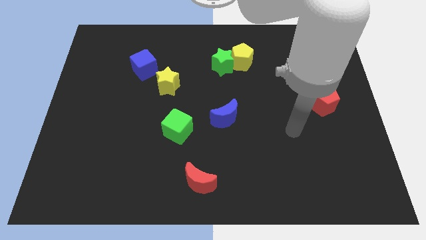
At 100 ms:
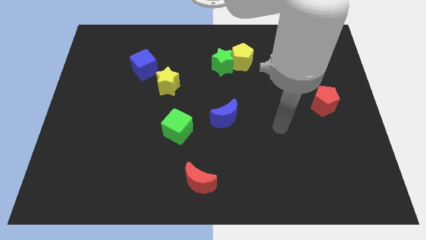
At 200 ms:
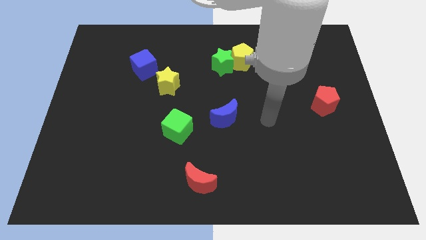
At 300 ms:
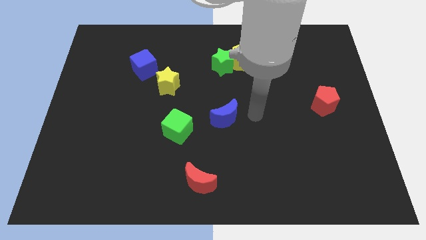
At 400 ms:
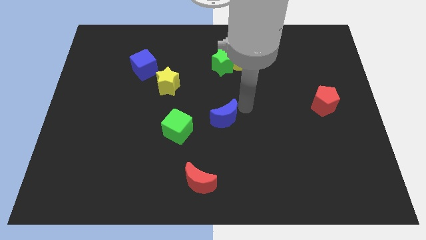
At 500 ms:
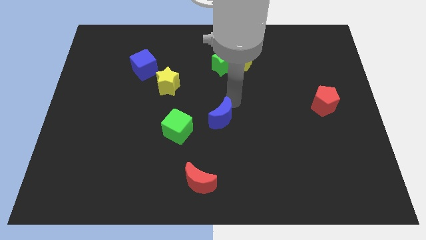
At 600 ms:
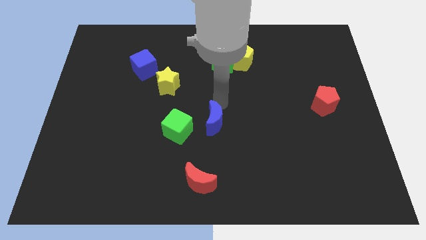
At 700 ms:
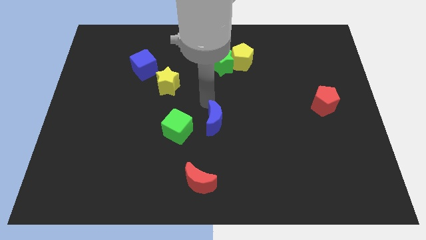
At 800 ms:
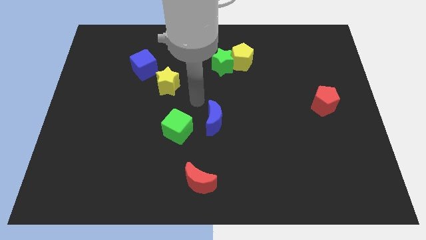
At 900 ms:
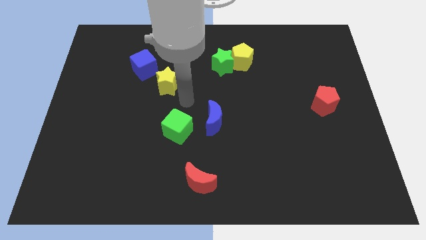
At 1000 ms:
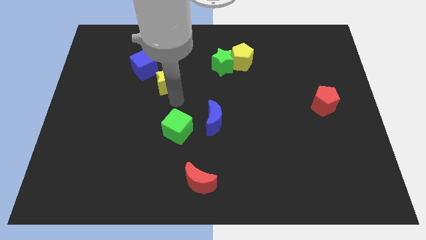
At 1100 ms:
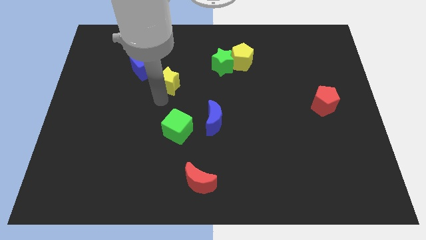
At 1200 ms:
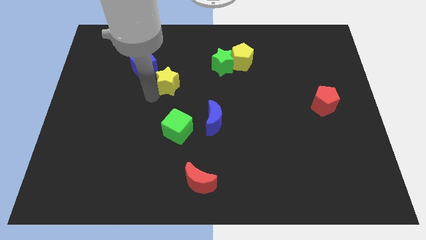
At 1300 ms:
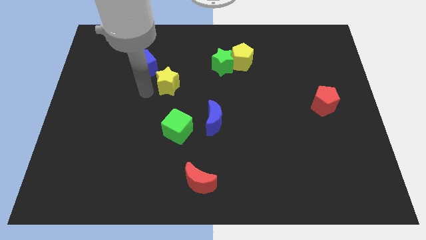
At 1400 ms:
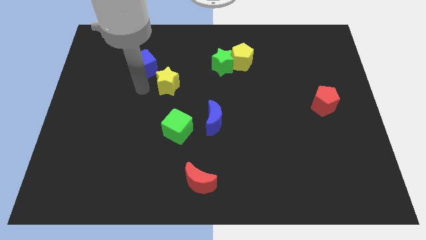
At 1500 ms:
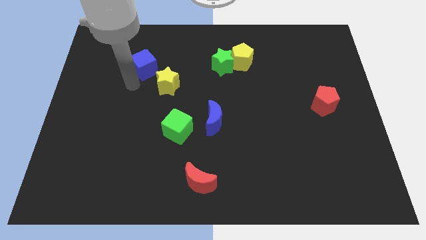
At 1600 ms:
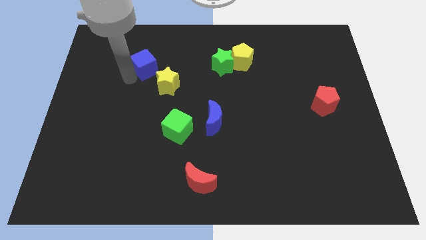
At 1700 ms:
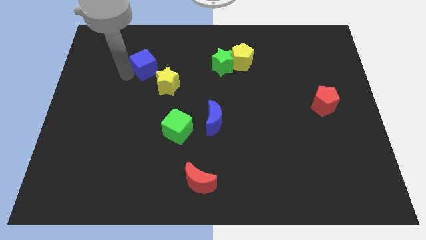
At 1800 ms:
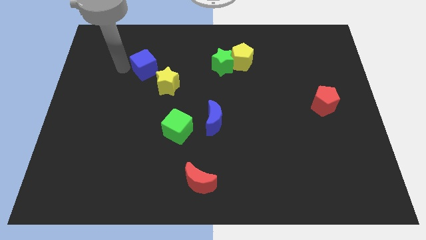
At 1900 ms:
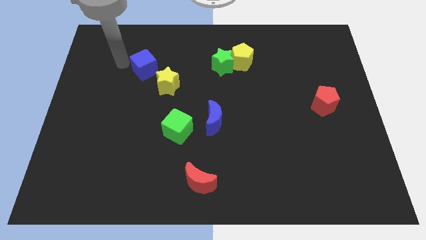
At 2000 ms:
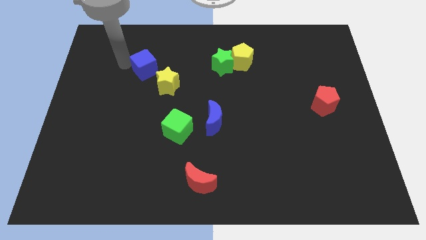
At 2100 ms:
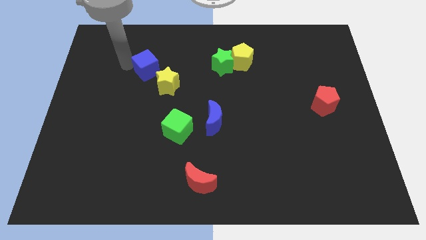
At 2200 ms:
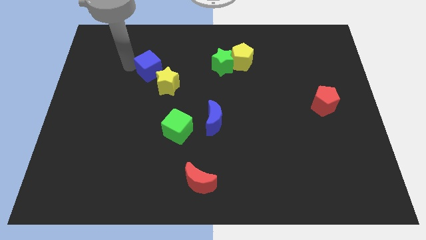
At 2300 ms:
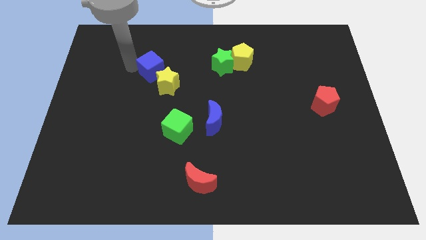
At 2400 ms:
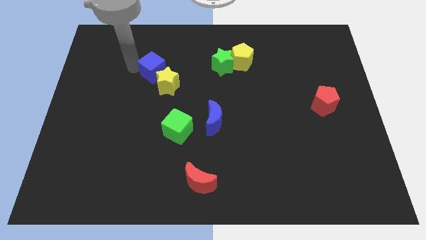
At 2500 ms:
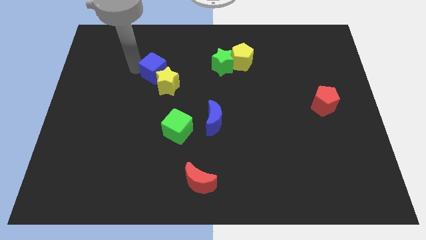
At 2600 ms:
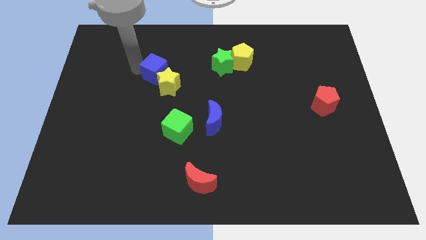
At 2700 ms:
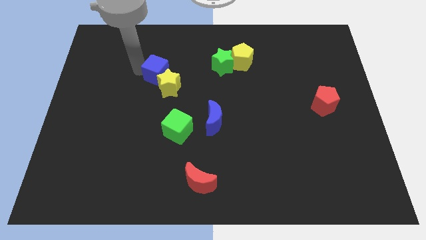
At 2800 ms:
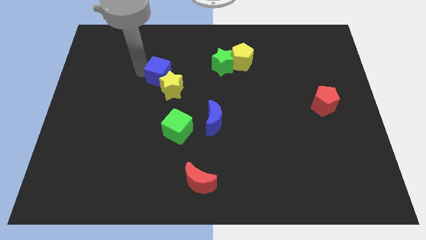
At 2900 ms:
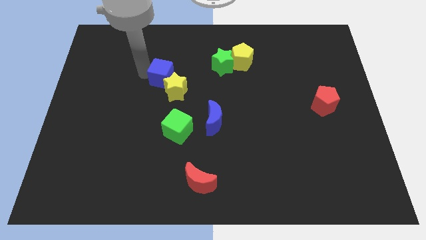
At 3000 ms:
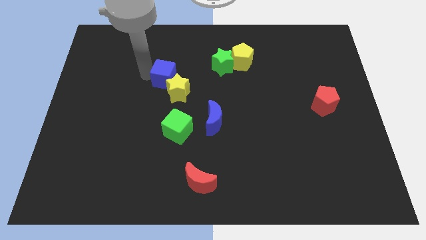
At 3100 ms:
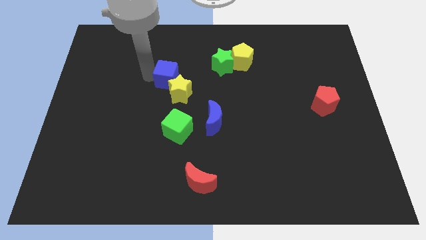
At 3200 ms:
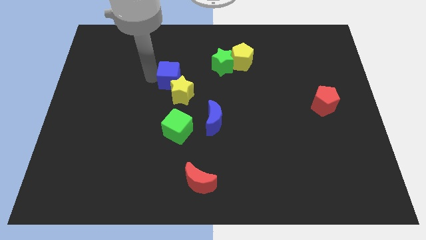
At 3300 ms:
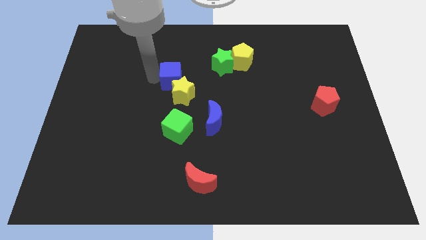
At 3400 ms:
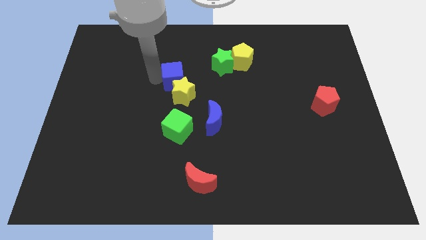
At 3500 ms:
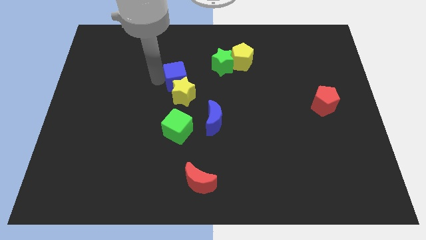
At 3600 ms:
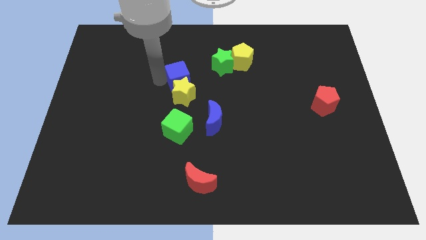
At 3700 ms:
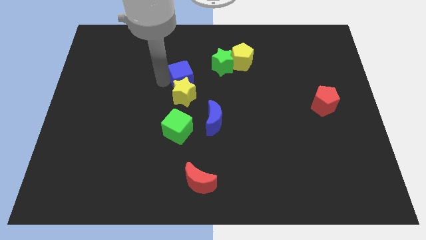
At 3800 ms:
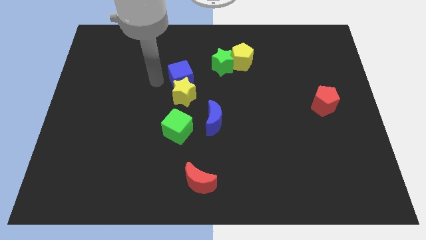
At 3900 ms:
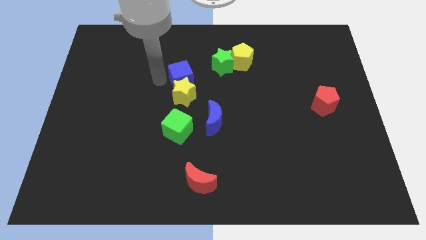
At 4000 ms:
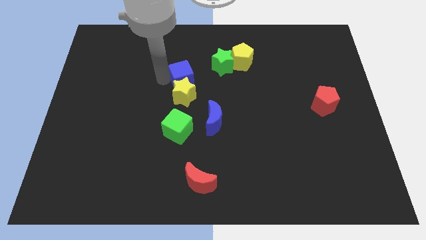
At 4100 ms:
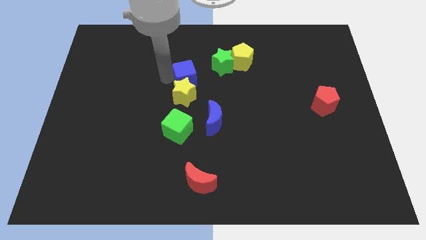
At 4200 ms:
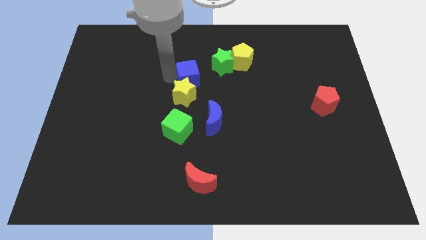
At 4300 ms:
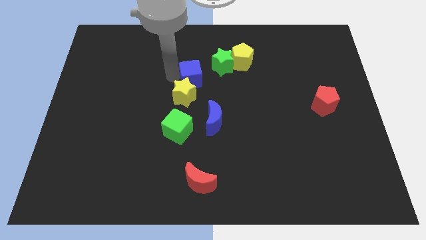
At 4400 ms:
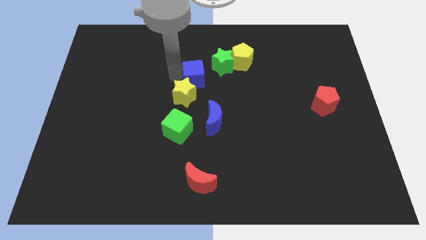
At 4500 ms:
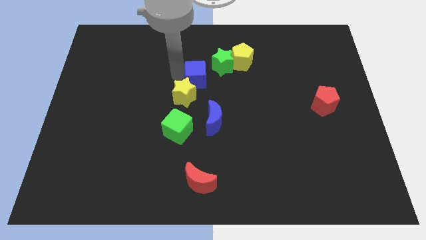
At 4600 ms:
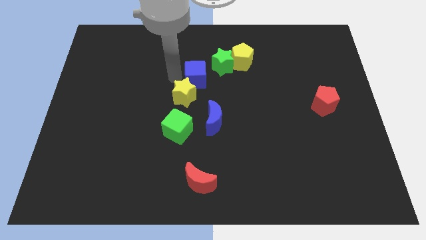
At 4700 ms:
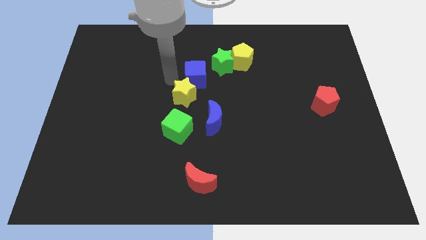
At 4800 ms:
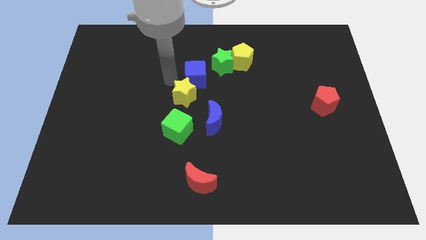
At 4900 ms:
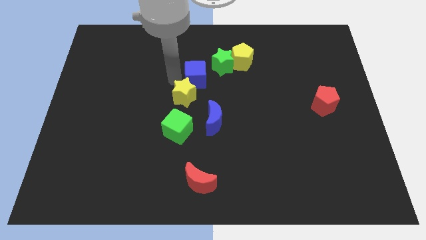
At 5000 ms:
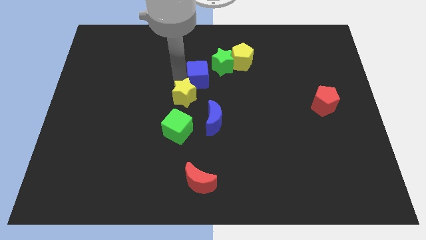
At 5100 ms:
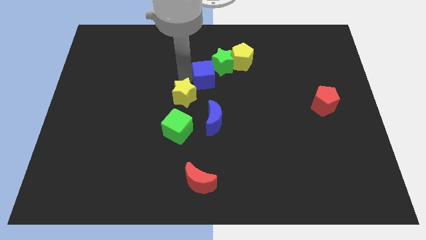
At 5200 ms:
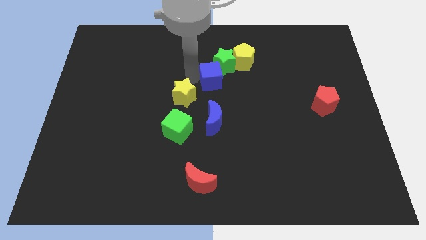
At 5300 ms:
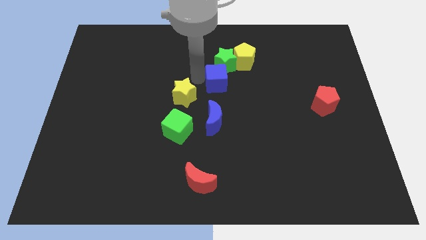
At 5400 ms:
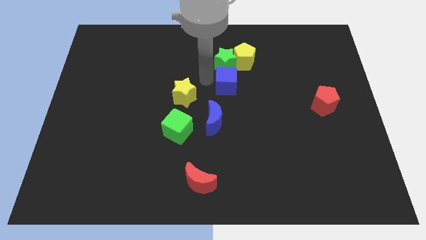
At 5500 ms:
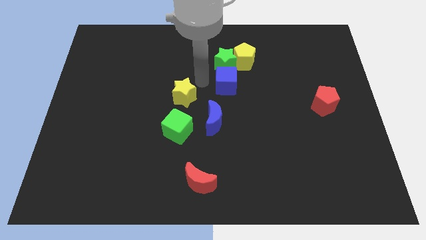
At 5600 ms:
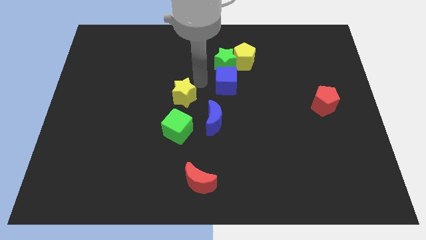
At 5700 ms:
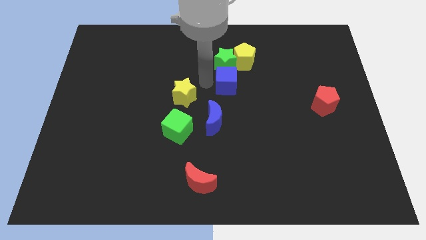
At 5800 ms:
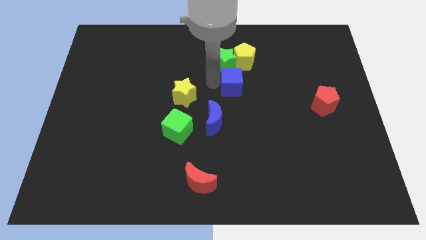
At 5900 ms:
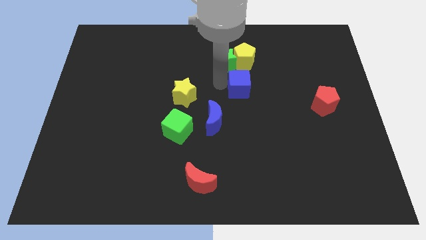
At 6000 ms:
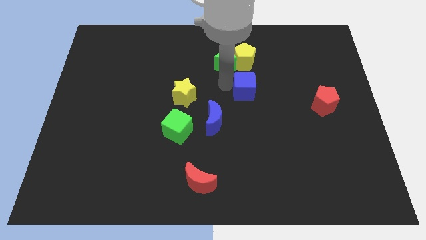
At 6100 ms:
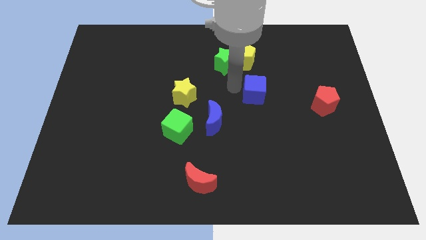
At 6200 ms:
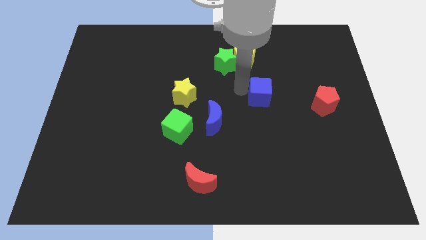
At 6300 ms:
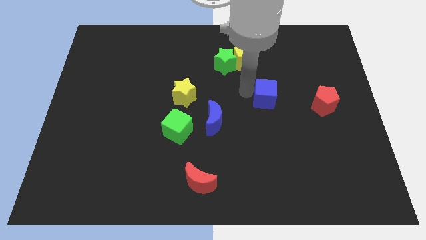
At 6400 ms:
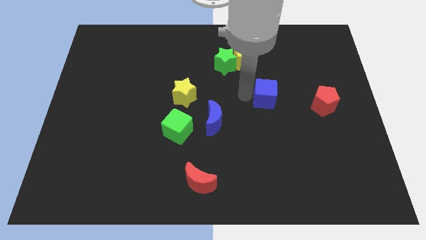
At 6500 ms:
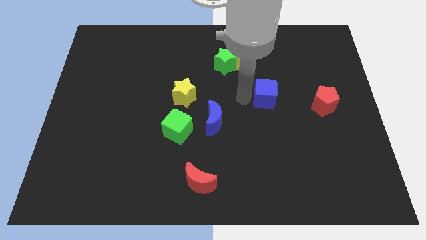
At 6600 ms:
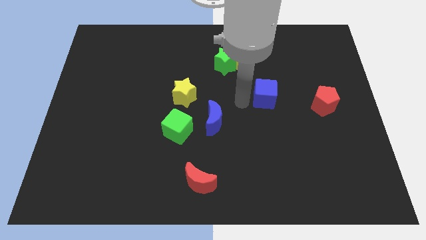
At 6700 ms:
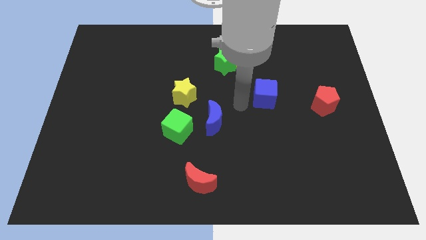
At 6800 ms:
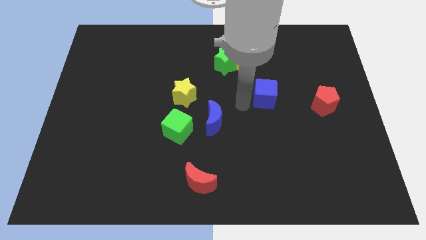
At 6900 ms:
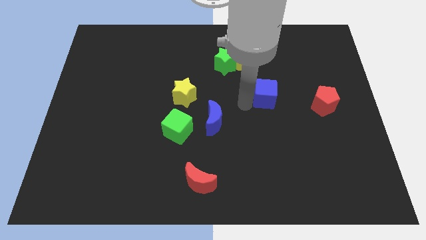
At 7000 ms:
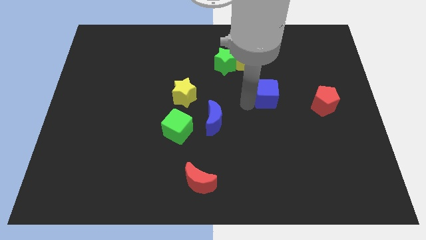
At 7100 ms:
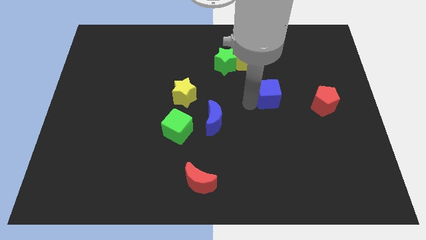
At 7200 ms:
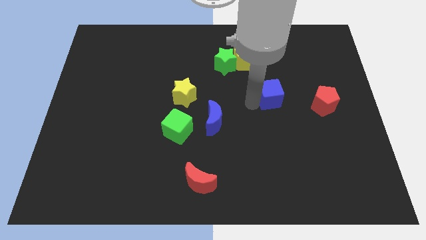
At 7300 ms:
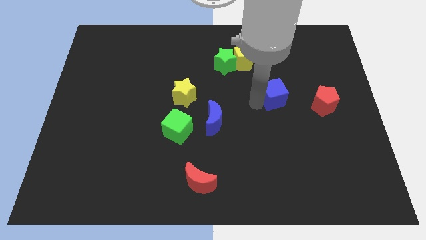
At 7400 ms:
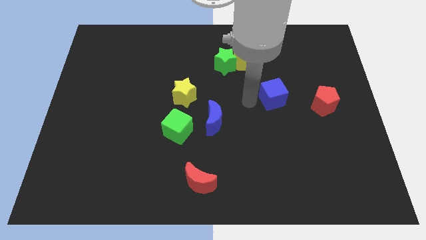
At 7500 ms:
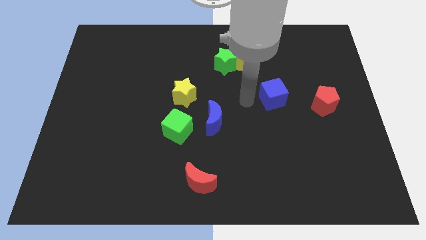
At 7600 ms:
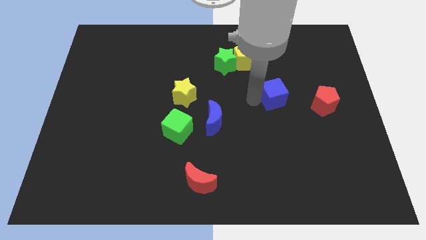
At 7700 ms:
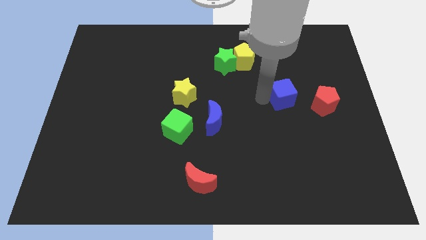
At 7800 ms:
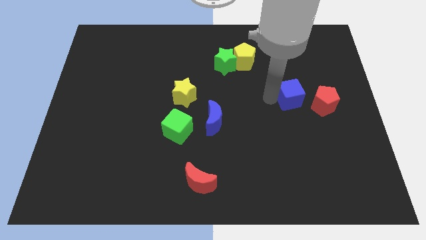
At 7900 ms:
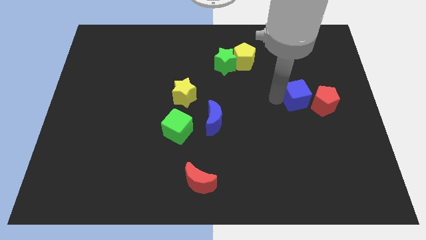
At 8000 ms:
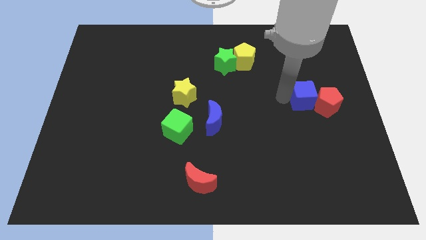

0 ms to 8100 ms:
put the blue cube towards the red pentagon
